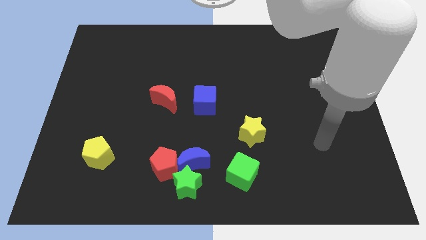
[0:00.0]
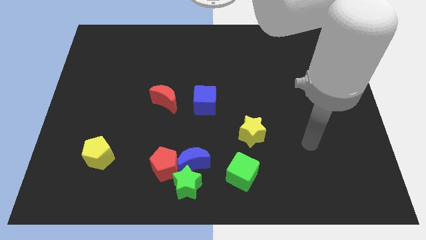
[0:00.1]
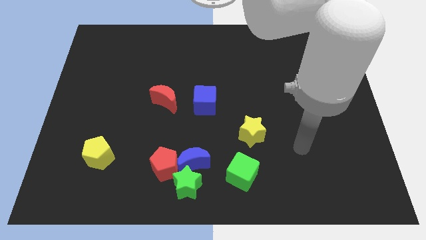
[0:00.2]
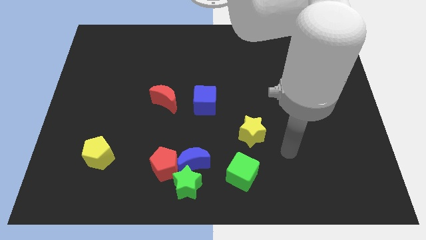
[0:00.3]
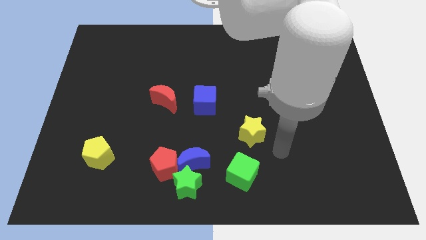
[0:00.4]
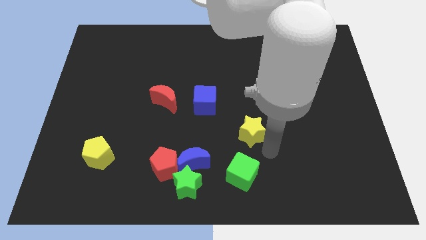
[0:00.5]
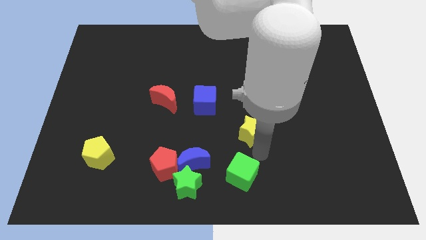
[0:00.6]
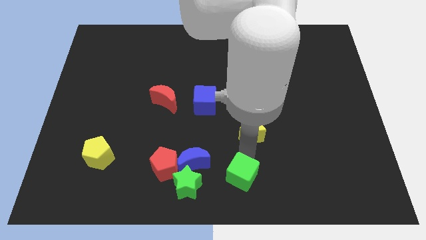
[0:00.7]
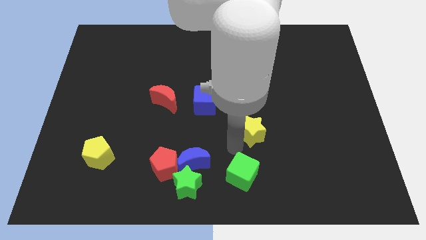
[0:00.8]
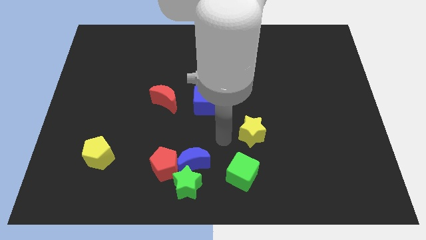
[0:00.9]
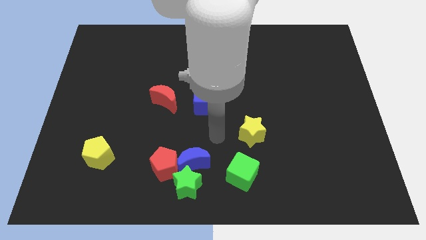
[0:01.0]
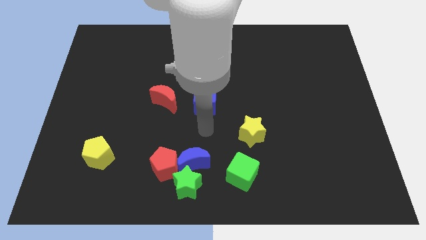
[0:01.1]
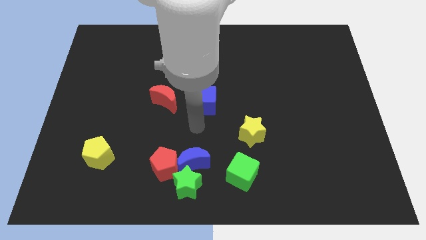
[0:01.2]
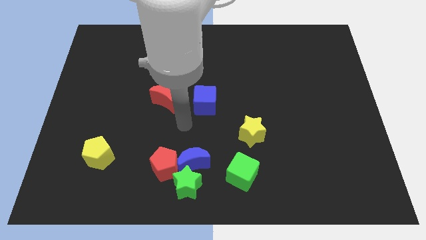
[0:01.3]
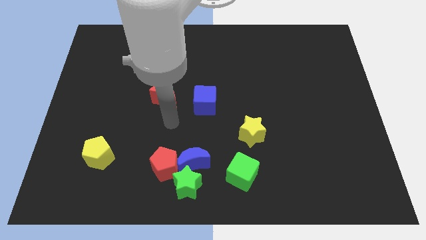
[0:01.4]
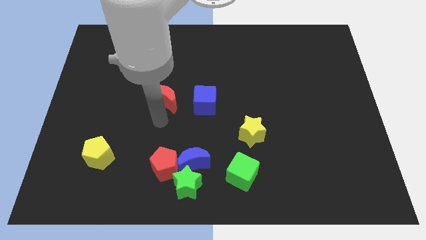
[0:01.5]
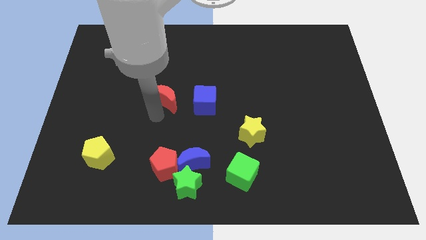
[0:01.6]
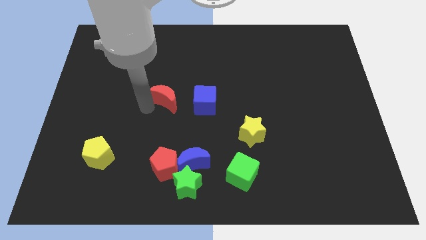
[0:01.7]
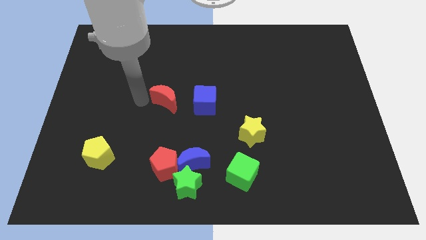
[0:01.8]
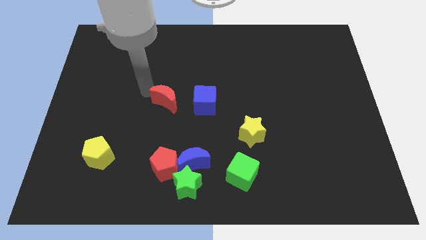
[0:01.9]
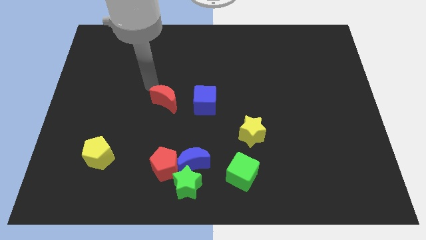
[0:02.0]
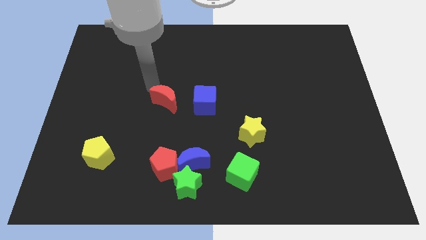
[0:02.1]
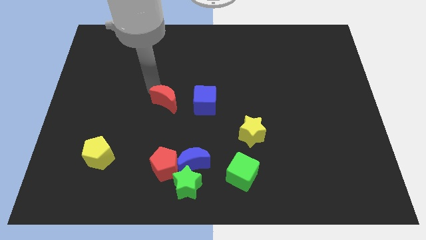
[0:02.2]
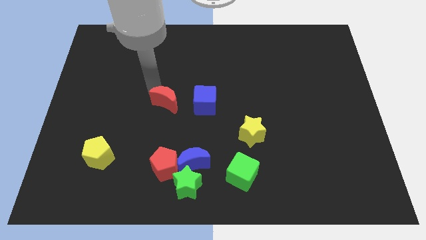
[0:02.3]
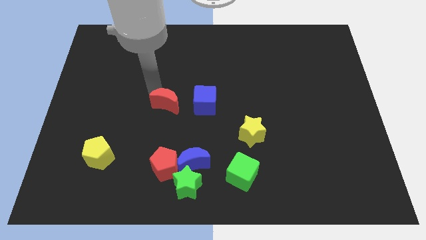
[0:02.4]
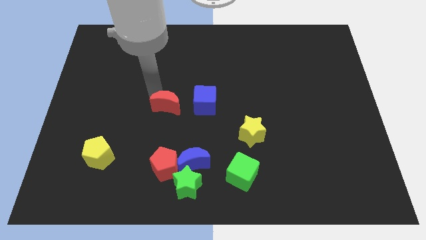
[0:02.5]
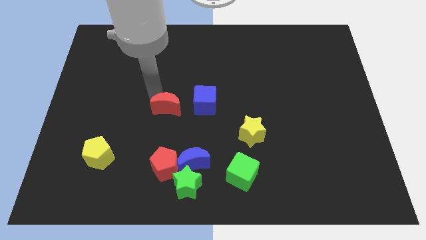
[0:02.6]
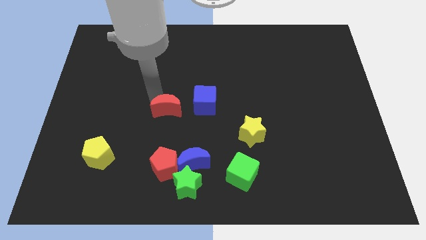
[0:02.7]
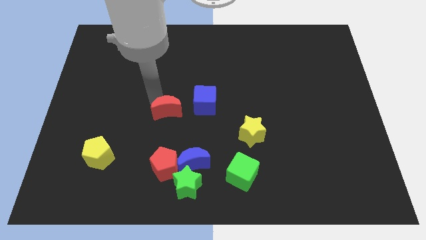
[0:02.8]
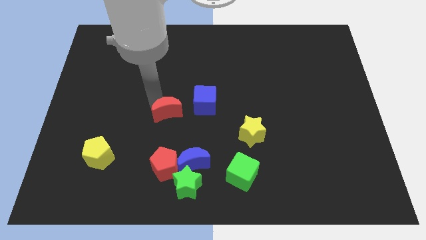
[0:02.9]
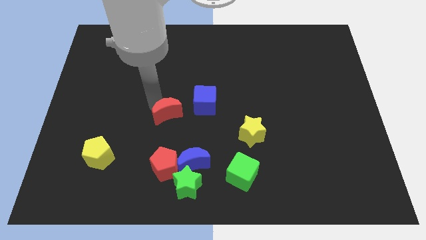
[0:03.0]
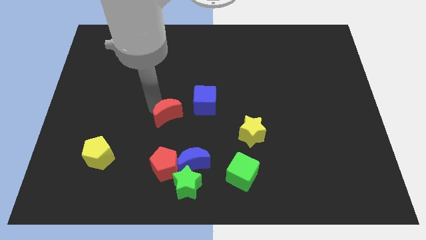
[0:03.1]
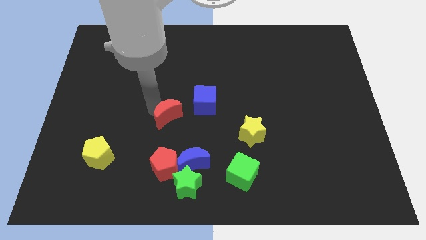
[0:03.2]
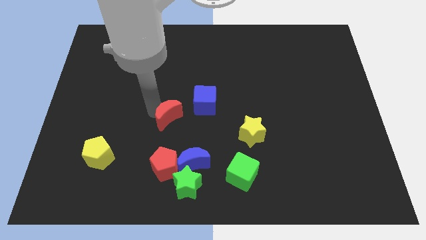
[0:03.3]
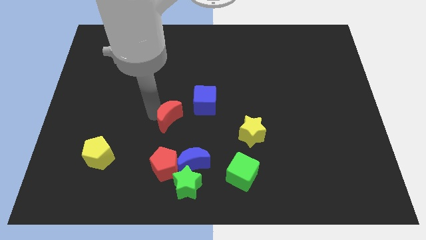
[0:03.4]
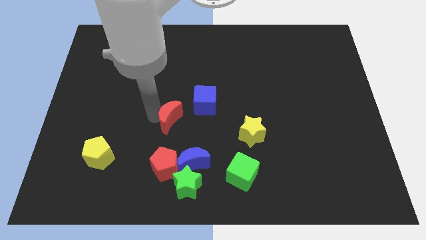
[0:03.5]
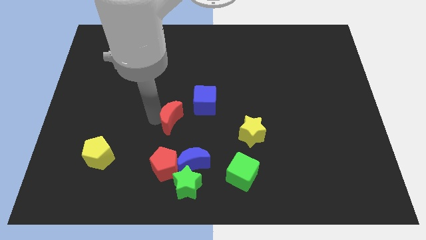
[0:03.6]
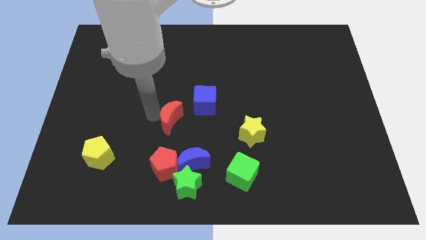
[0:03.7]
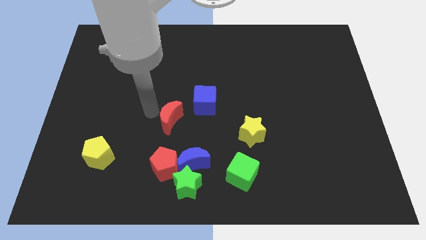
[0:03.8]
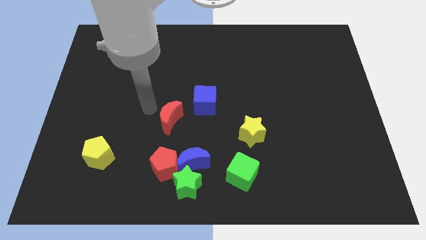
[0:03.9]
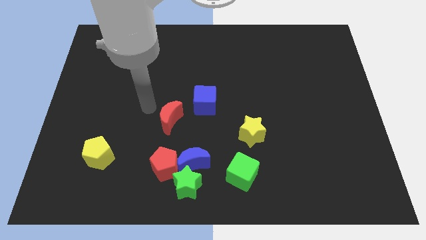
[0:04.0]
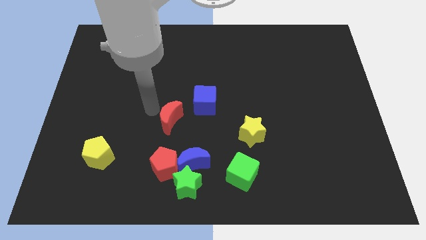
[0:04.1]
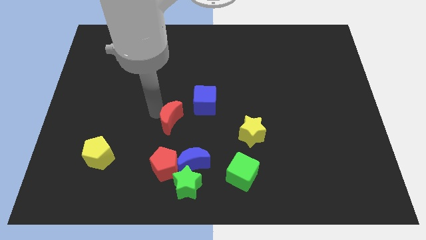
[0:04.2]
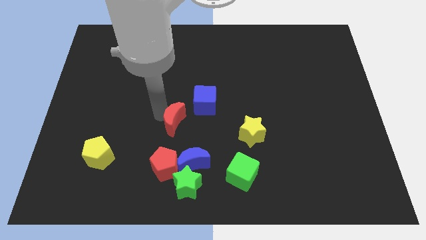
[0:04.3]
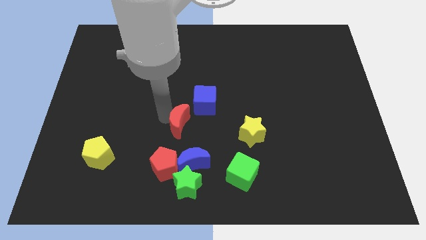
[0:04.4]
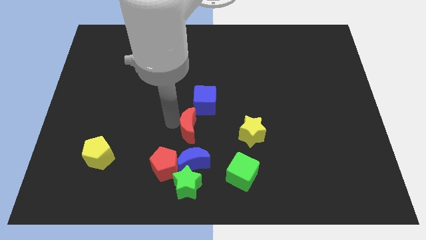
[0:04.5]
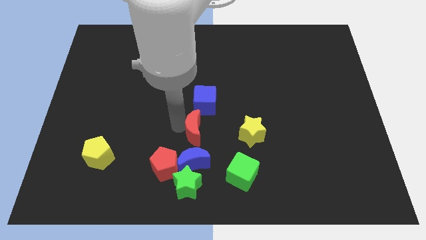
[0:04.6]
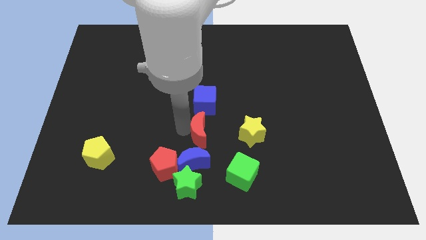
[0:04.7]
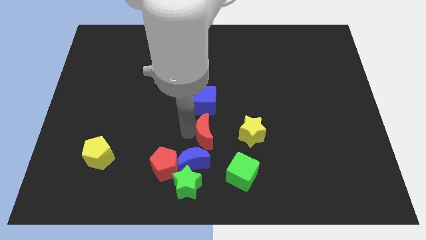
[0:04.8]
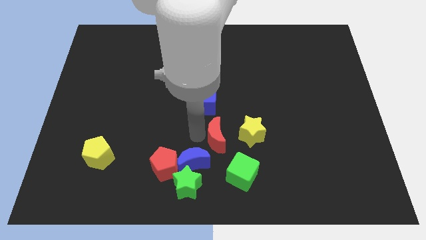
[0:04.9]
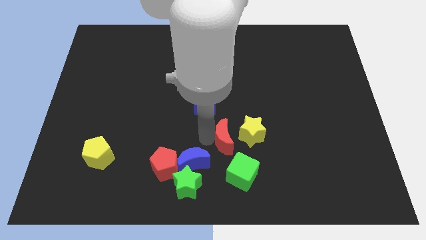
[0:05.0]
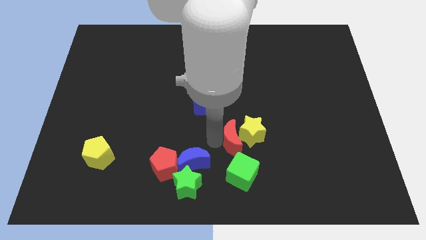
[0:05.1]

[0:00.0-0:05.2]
slide the red moon close to the yellow star

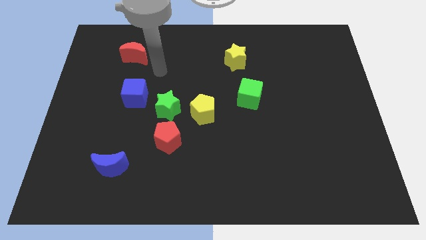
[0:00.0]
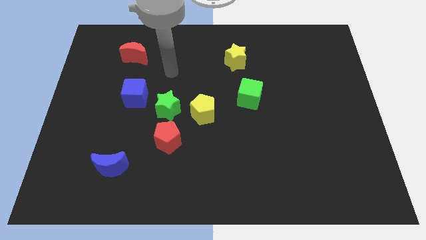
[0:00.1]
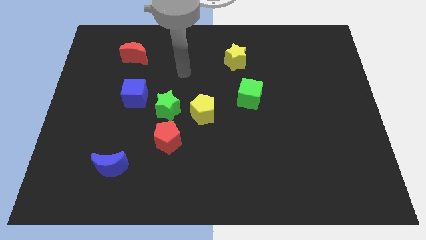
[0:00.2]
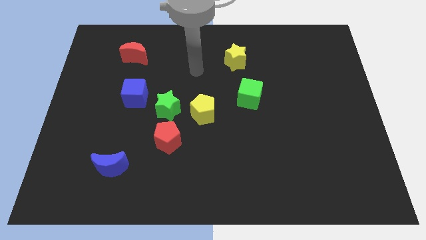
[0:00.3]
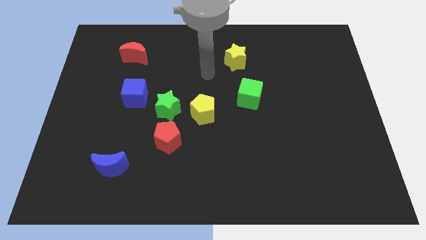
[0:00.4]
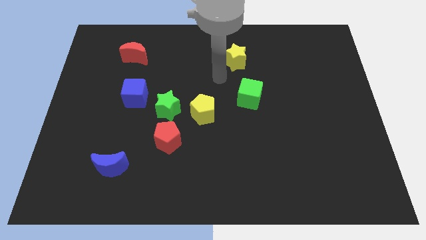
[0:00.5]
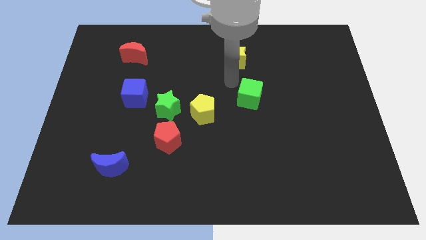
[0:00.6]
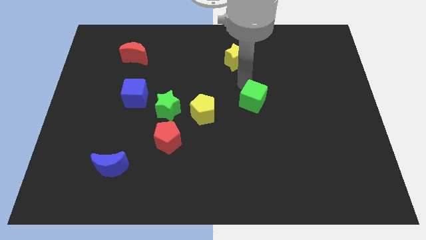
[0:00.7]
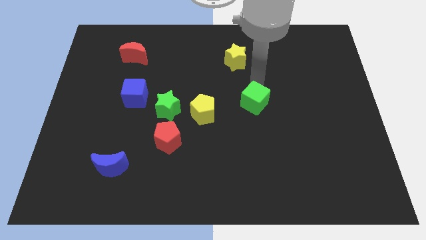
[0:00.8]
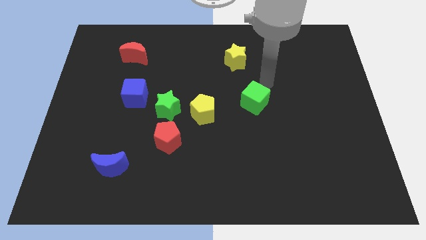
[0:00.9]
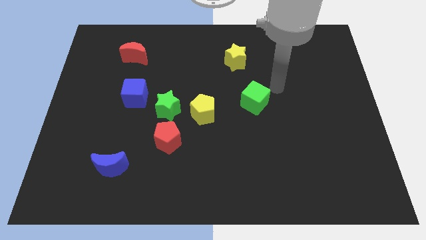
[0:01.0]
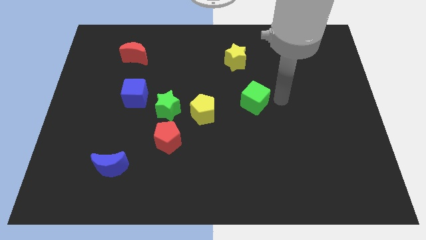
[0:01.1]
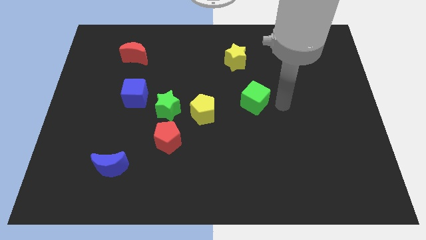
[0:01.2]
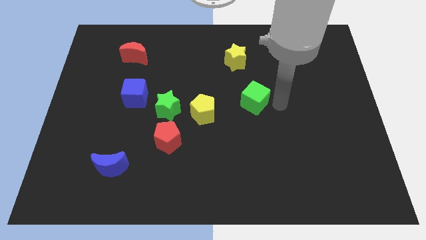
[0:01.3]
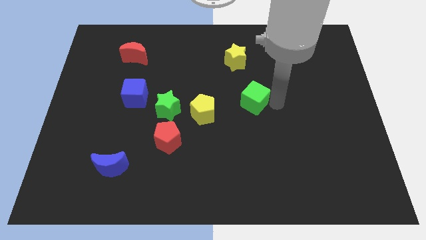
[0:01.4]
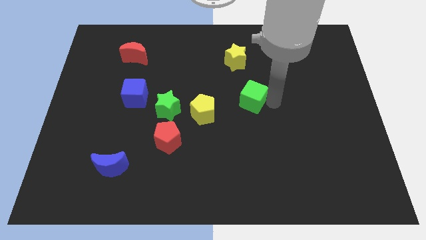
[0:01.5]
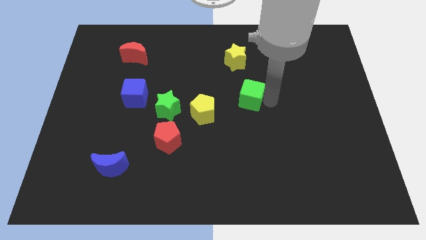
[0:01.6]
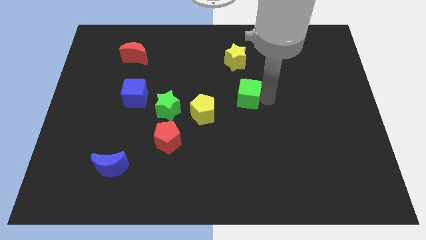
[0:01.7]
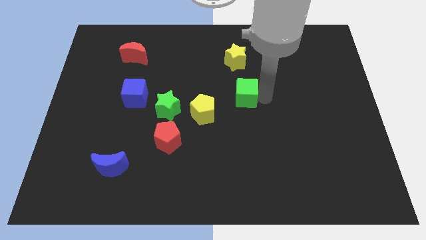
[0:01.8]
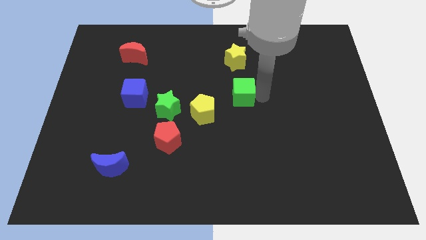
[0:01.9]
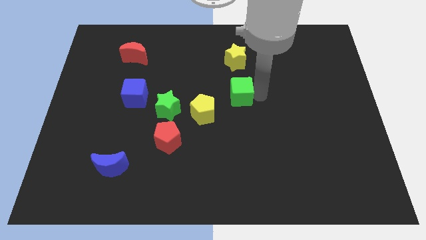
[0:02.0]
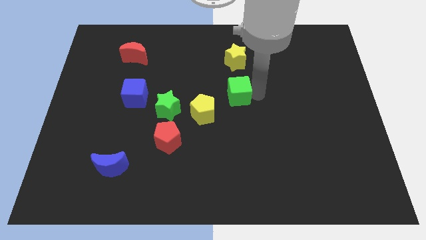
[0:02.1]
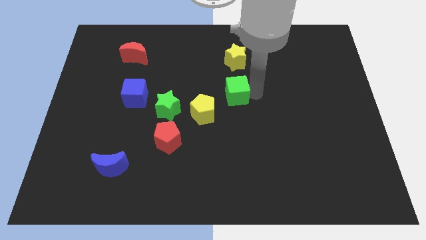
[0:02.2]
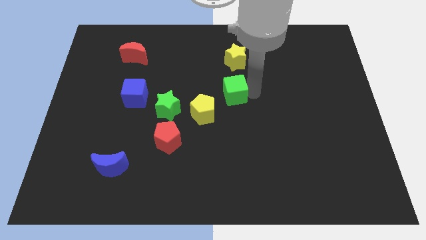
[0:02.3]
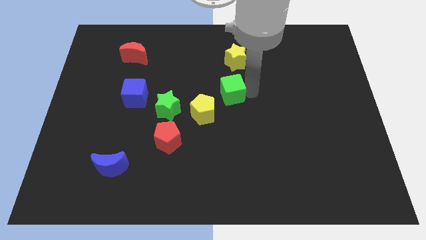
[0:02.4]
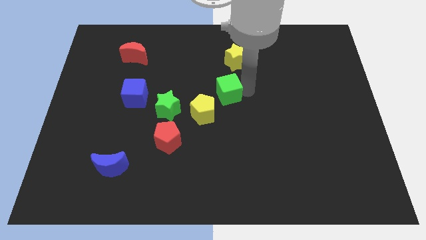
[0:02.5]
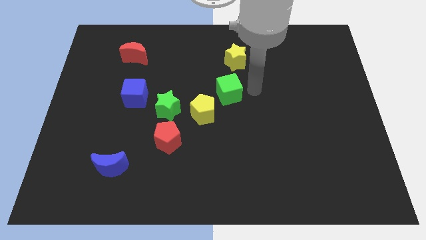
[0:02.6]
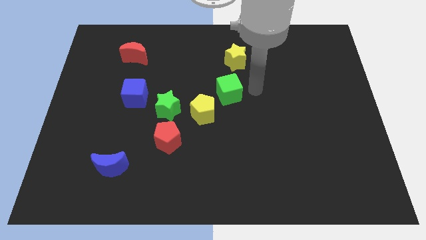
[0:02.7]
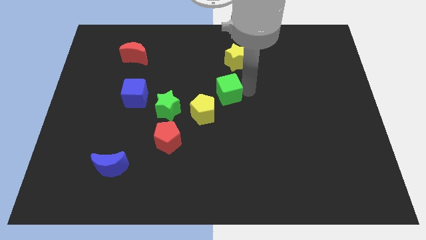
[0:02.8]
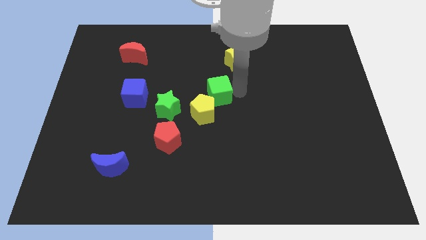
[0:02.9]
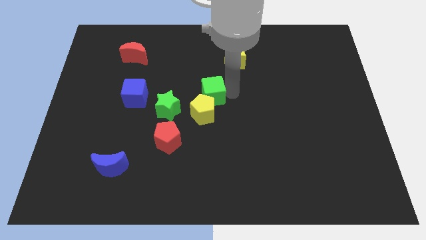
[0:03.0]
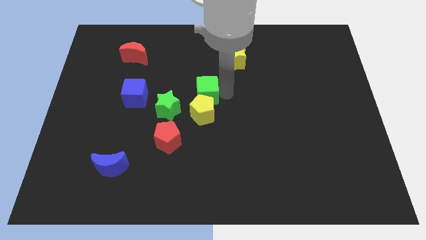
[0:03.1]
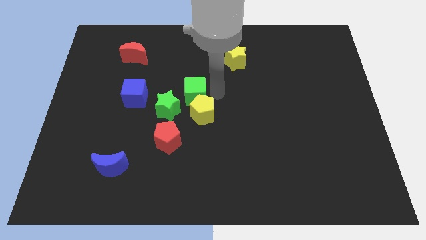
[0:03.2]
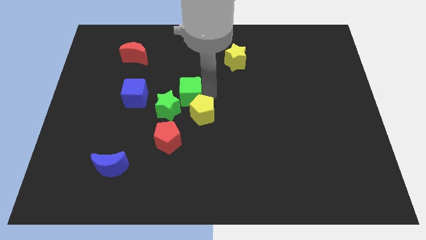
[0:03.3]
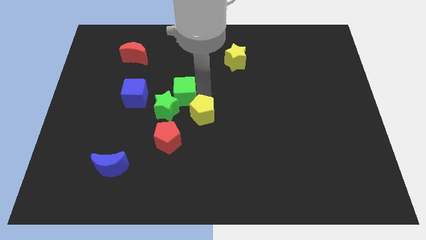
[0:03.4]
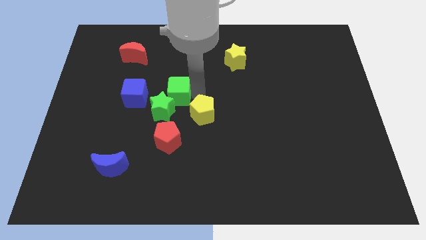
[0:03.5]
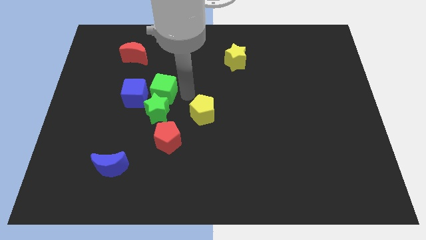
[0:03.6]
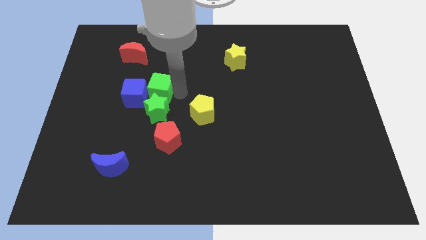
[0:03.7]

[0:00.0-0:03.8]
slide the green cube to the blue cube
